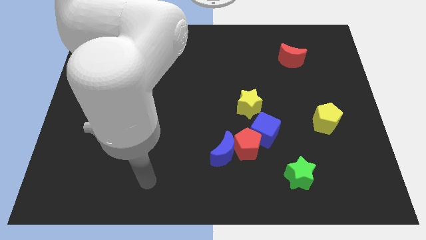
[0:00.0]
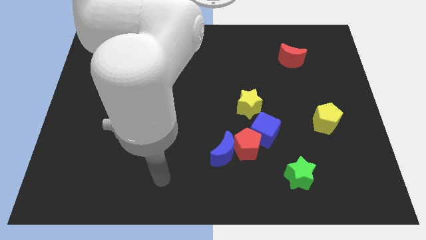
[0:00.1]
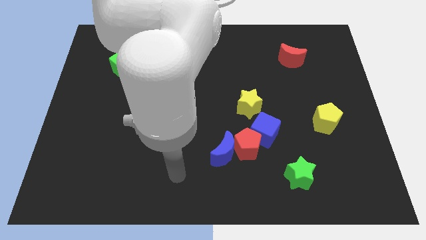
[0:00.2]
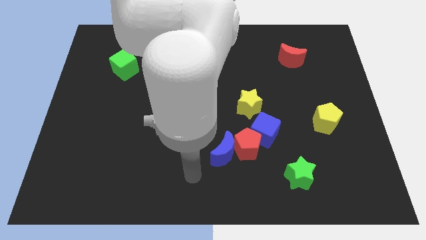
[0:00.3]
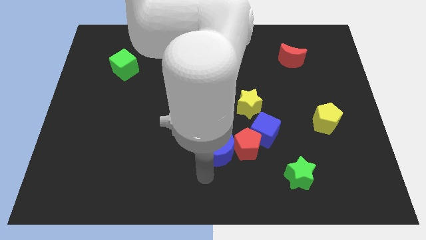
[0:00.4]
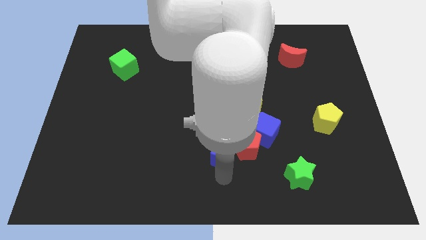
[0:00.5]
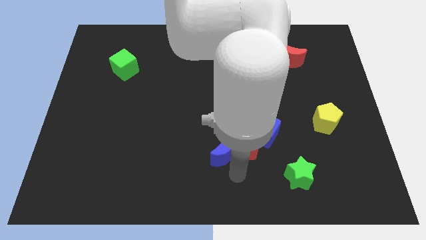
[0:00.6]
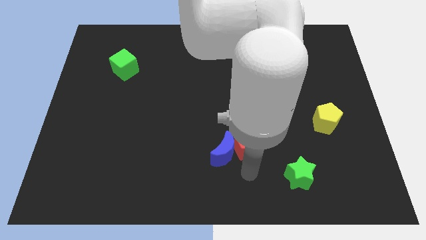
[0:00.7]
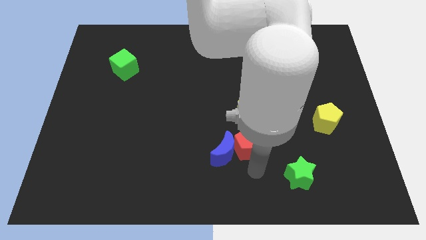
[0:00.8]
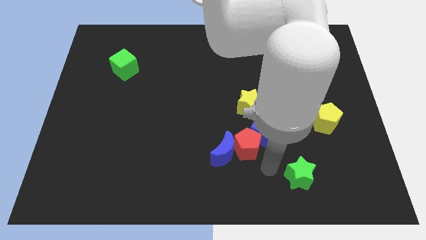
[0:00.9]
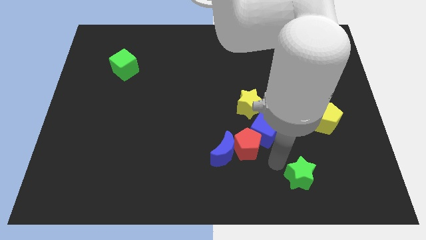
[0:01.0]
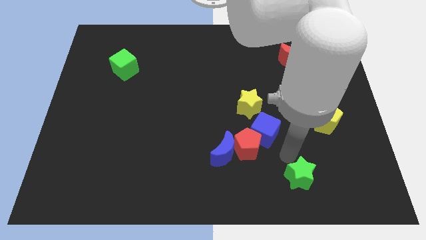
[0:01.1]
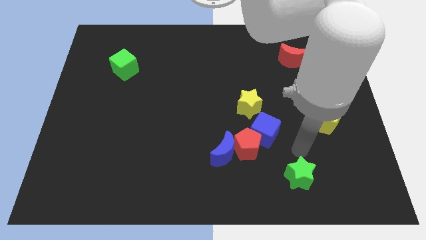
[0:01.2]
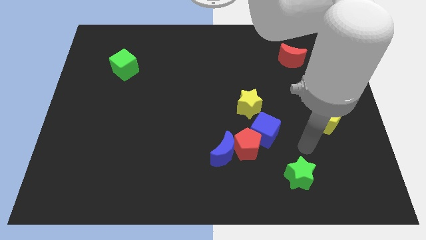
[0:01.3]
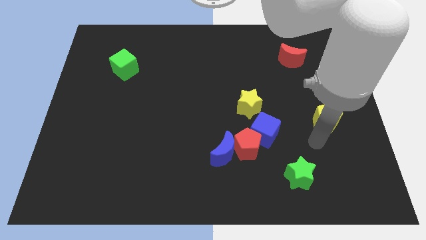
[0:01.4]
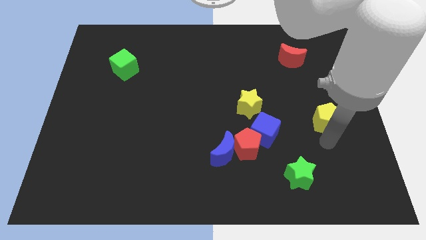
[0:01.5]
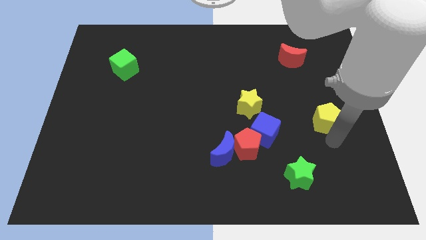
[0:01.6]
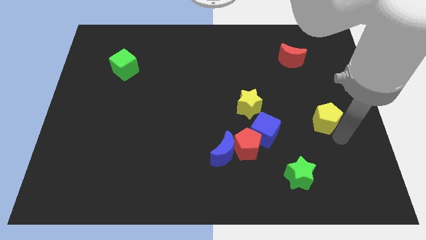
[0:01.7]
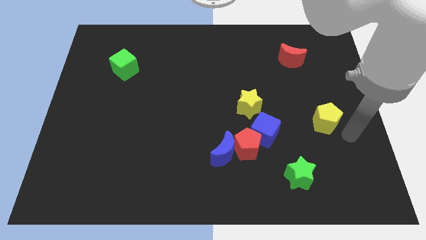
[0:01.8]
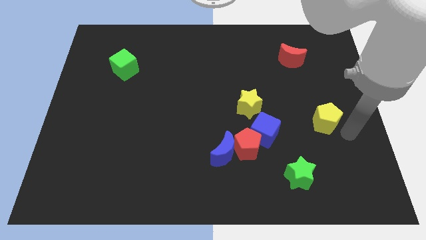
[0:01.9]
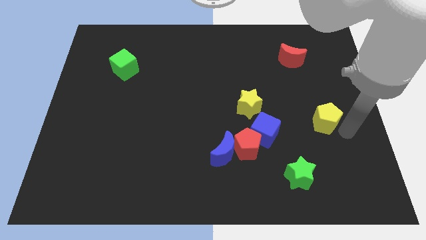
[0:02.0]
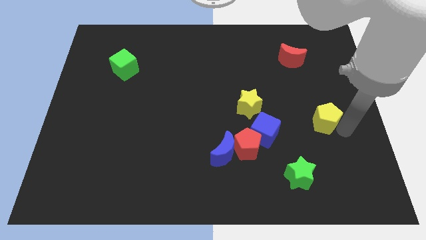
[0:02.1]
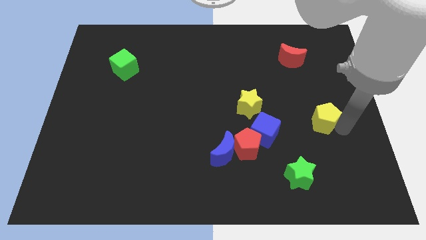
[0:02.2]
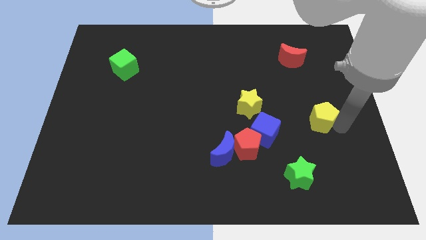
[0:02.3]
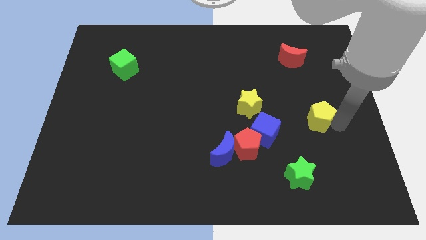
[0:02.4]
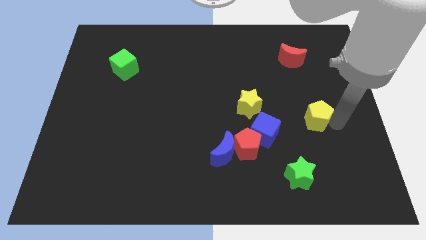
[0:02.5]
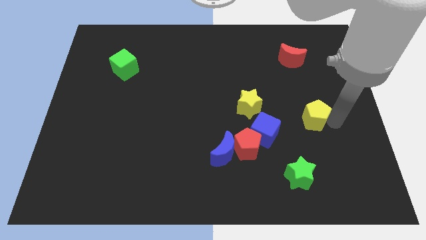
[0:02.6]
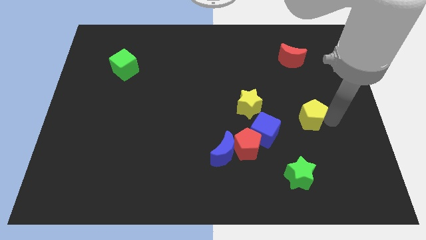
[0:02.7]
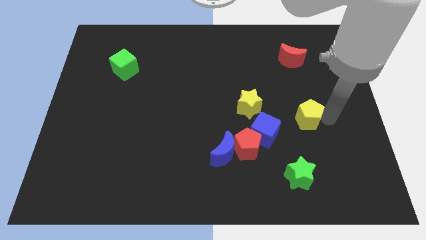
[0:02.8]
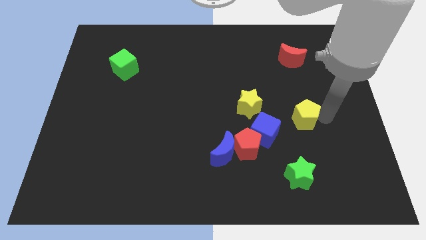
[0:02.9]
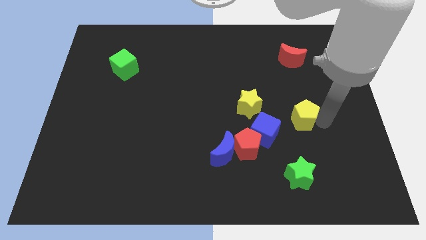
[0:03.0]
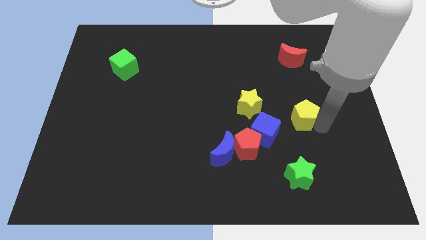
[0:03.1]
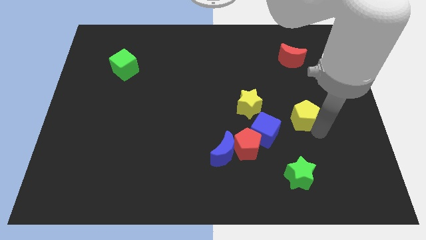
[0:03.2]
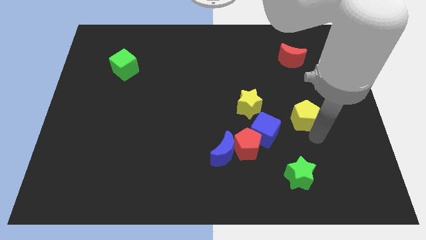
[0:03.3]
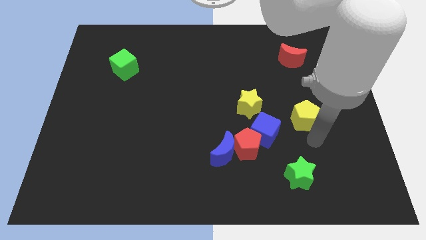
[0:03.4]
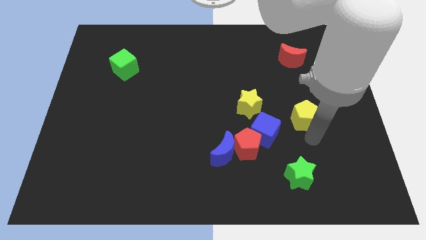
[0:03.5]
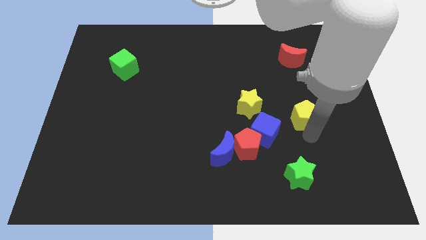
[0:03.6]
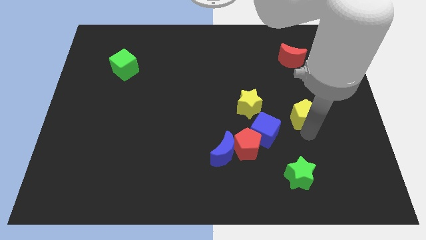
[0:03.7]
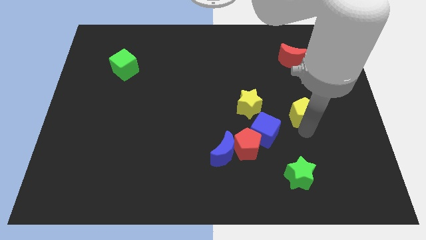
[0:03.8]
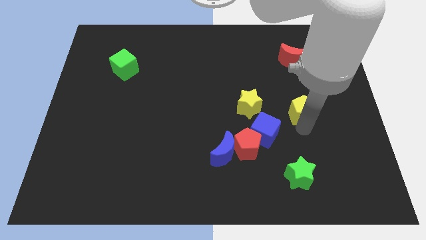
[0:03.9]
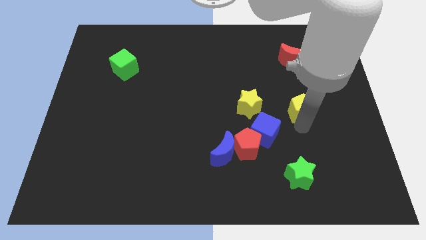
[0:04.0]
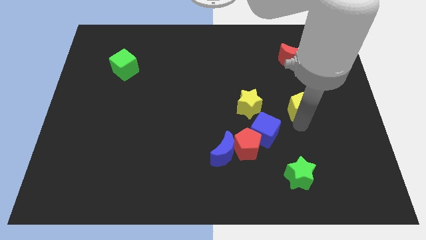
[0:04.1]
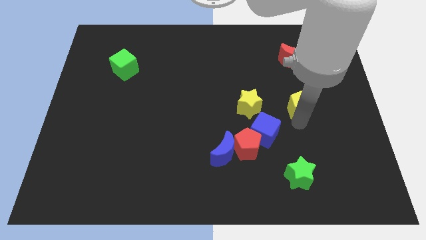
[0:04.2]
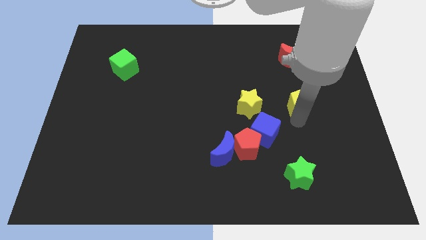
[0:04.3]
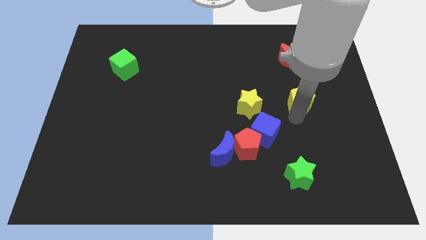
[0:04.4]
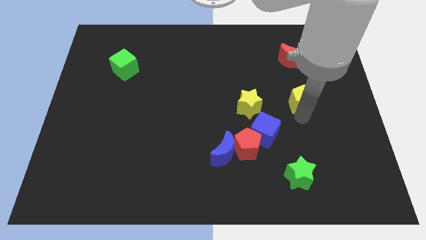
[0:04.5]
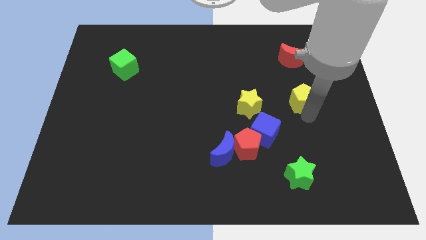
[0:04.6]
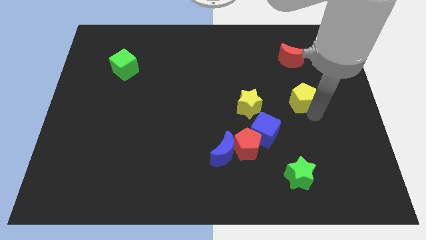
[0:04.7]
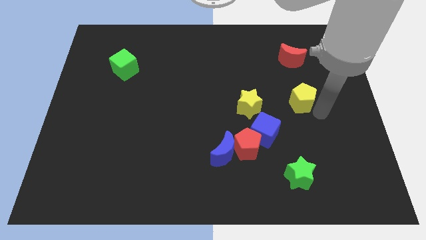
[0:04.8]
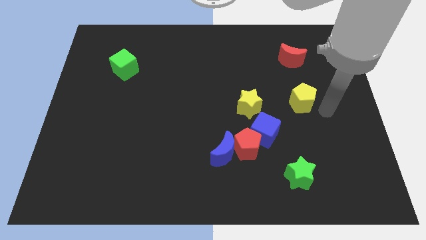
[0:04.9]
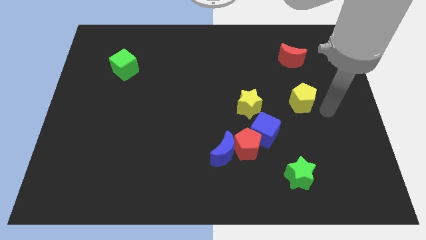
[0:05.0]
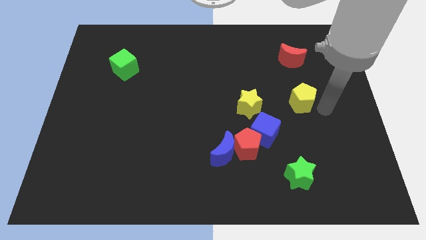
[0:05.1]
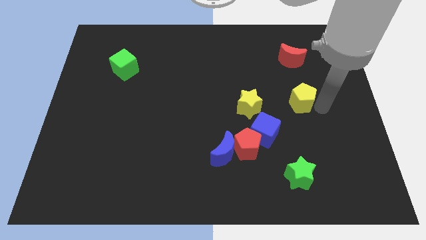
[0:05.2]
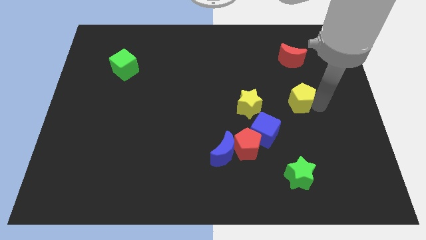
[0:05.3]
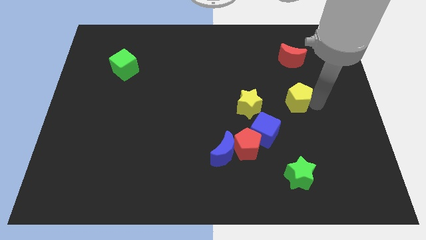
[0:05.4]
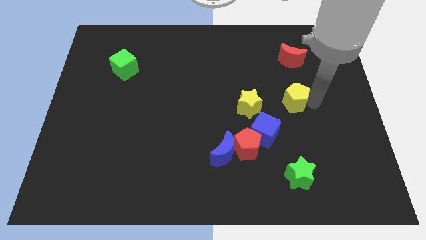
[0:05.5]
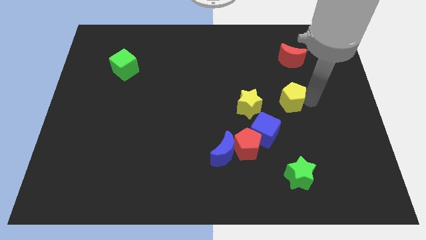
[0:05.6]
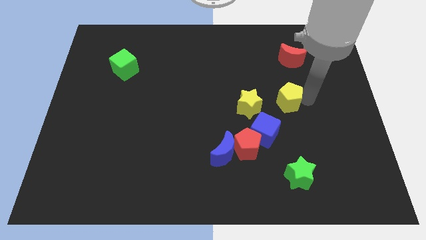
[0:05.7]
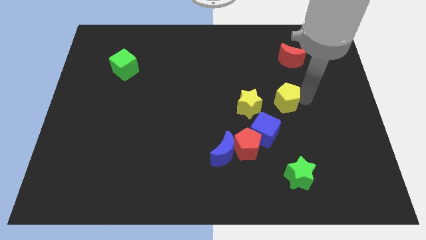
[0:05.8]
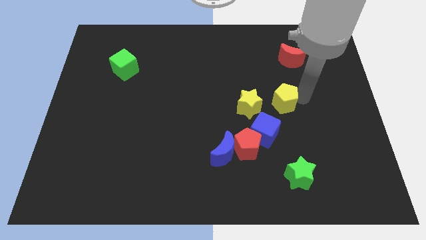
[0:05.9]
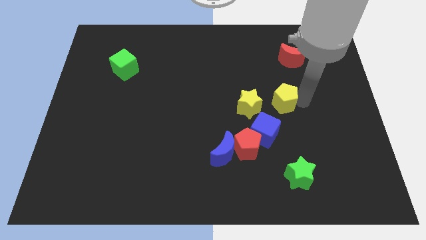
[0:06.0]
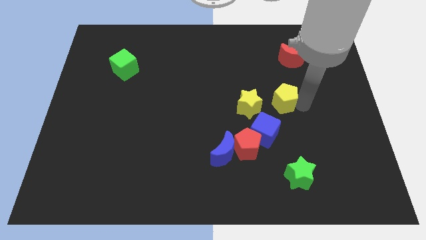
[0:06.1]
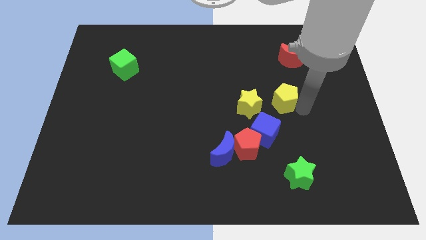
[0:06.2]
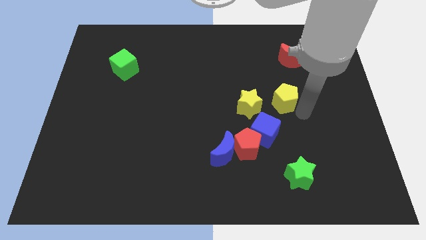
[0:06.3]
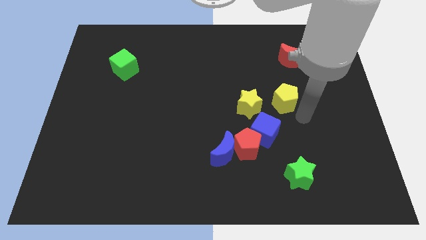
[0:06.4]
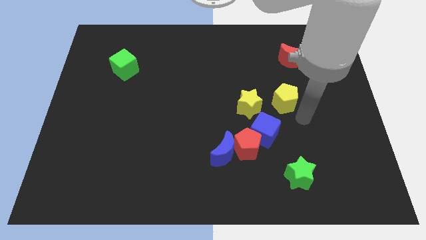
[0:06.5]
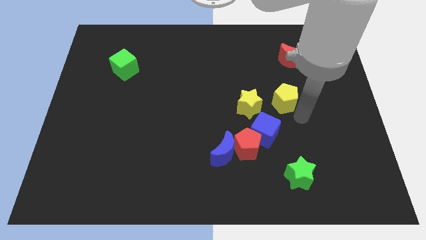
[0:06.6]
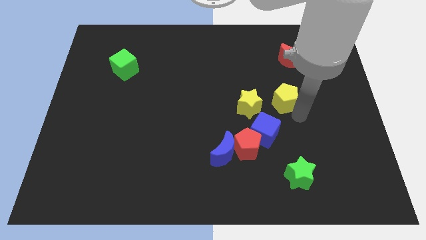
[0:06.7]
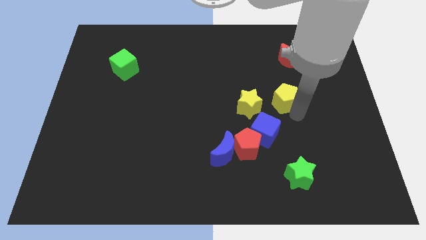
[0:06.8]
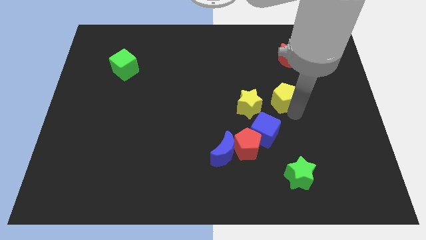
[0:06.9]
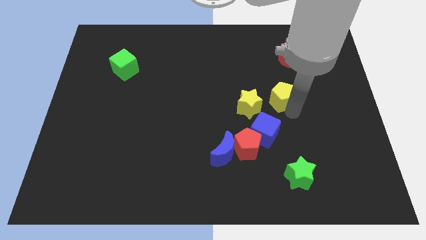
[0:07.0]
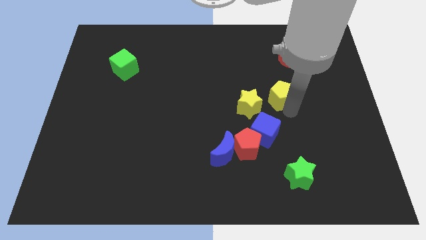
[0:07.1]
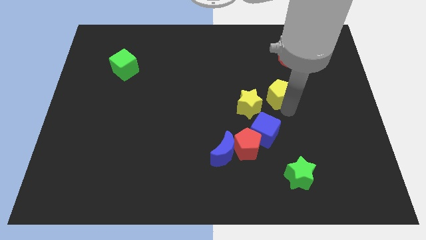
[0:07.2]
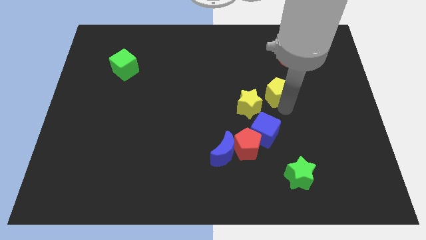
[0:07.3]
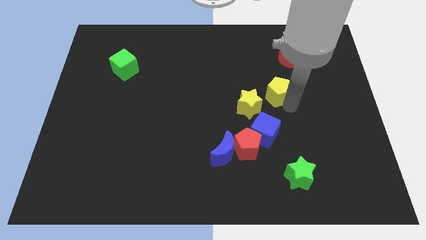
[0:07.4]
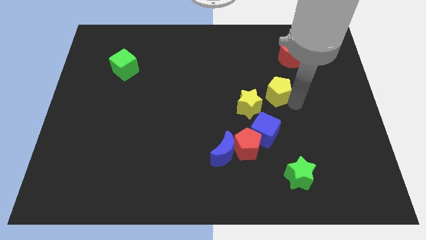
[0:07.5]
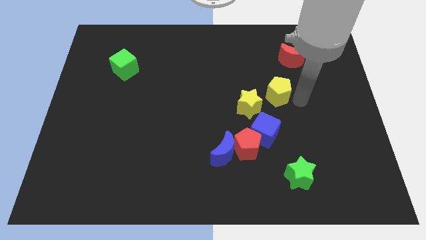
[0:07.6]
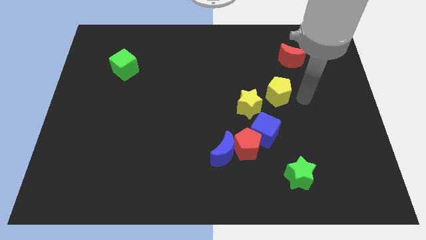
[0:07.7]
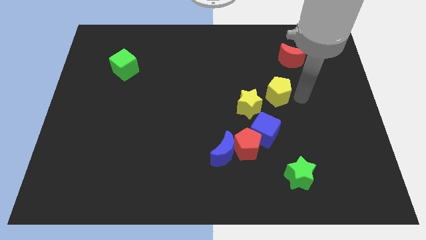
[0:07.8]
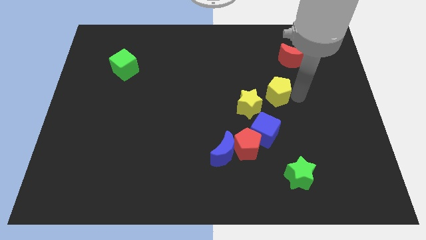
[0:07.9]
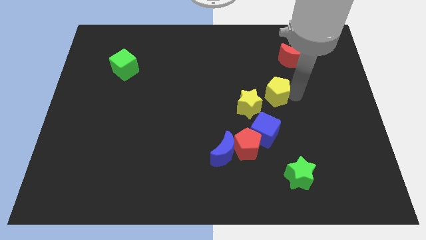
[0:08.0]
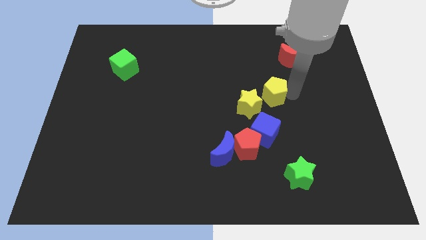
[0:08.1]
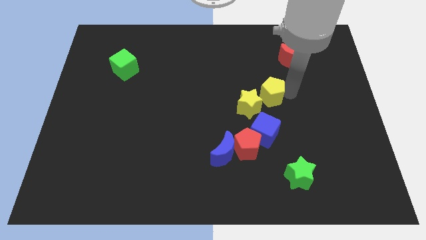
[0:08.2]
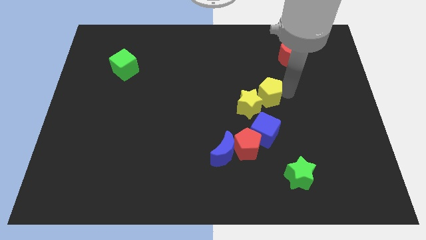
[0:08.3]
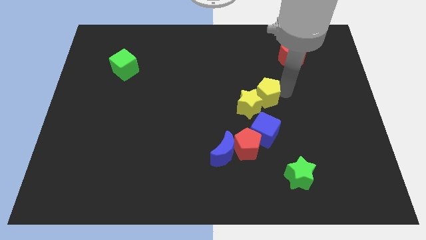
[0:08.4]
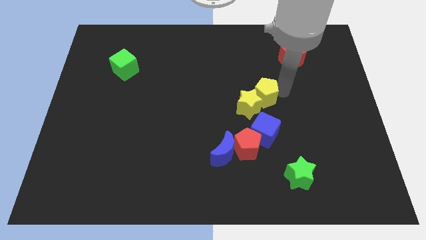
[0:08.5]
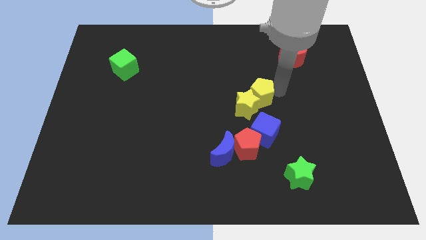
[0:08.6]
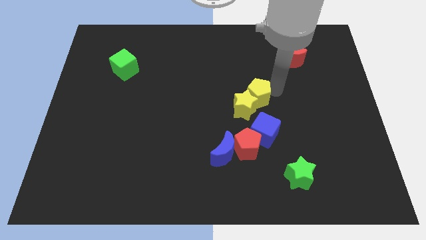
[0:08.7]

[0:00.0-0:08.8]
put the yellow pentagon to the top side of the red pentagon
